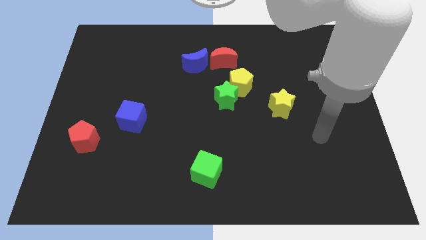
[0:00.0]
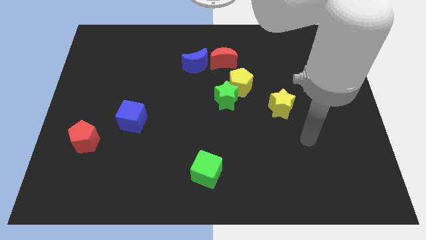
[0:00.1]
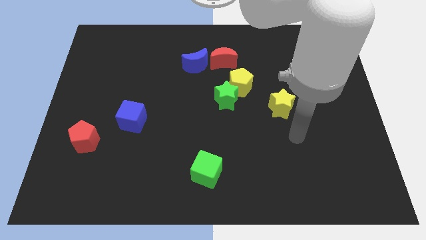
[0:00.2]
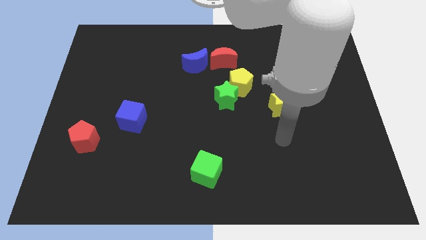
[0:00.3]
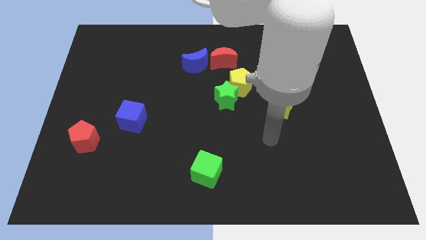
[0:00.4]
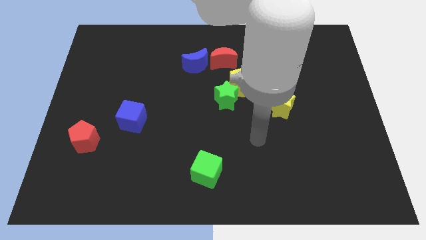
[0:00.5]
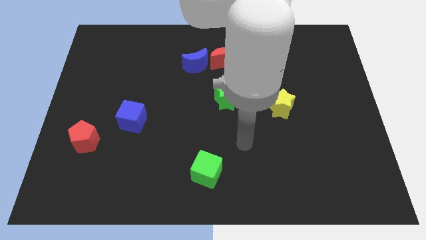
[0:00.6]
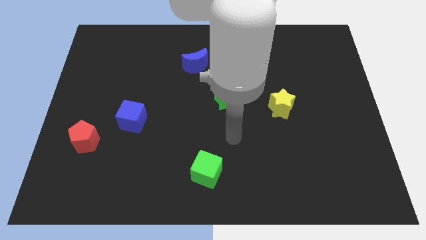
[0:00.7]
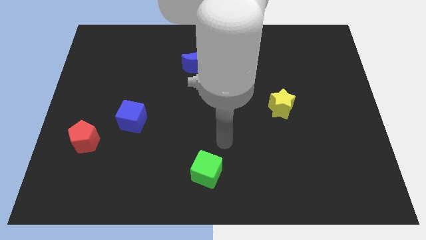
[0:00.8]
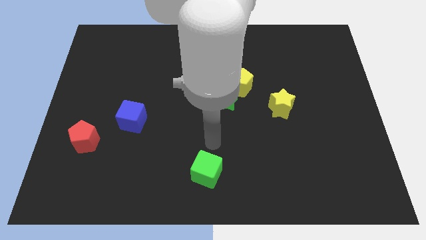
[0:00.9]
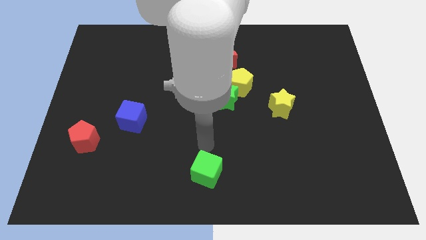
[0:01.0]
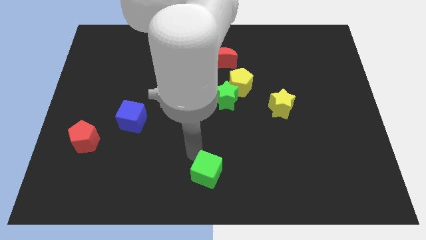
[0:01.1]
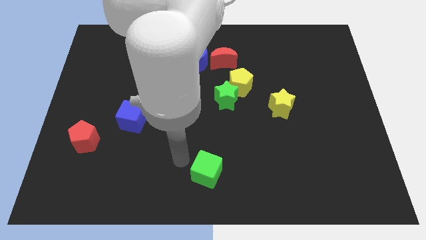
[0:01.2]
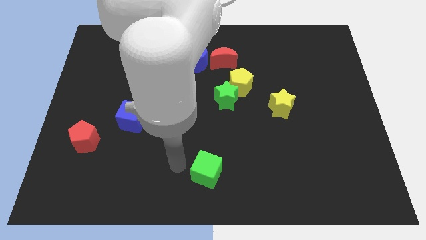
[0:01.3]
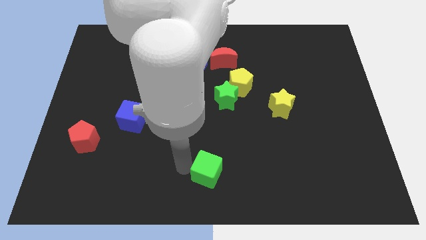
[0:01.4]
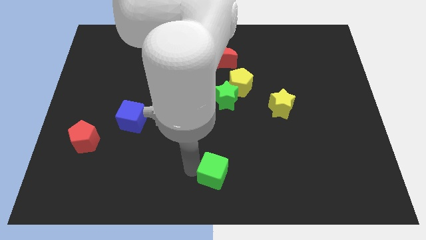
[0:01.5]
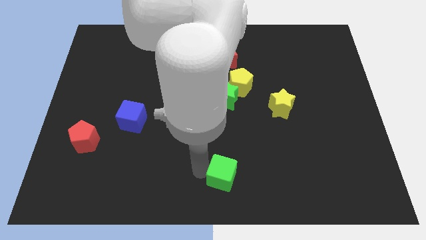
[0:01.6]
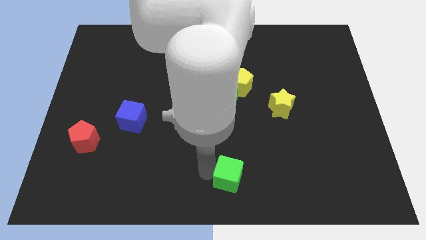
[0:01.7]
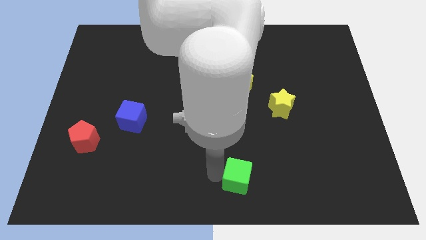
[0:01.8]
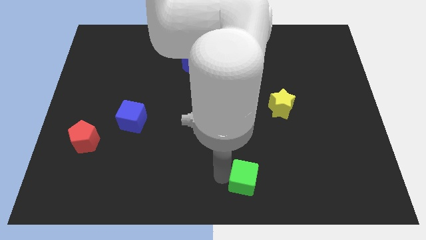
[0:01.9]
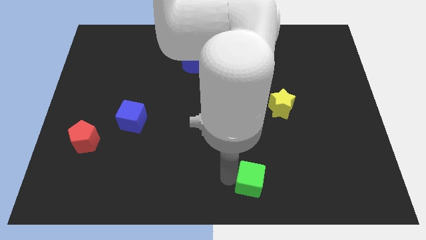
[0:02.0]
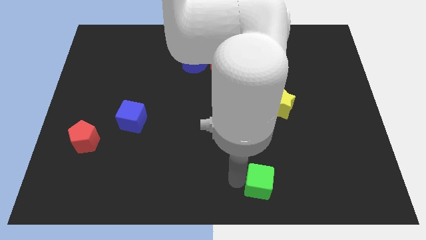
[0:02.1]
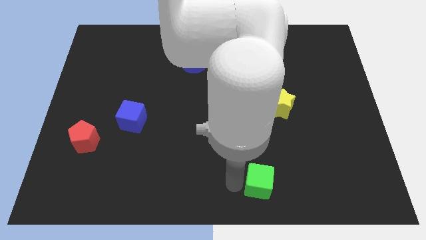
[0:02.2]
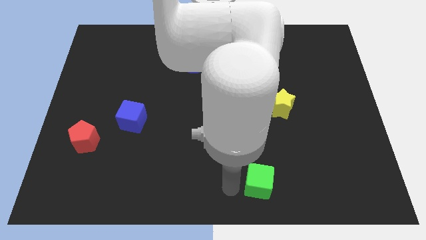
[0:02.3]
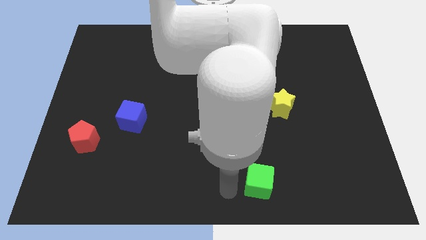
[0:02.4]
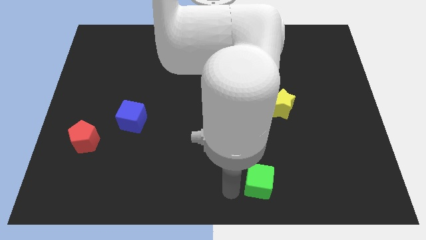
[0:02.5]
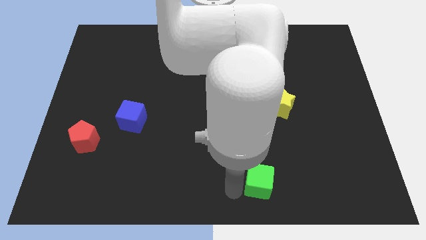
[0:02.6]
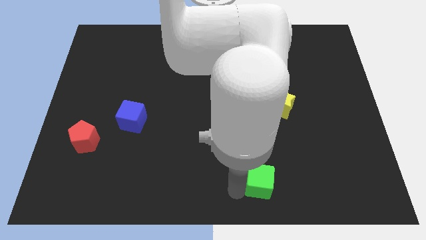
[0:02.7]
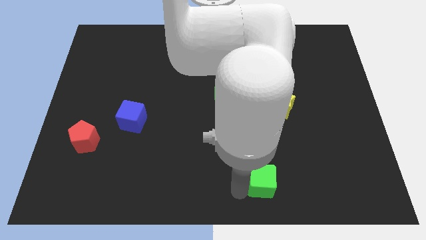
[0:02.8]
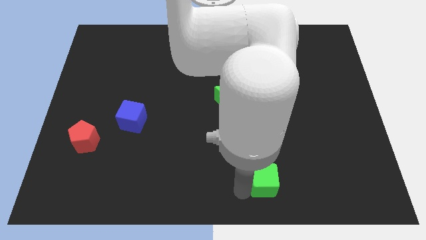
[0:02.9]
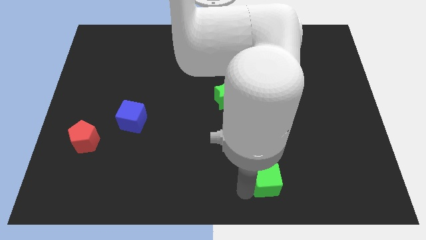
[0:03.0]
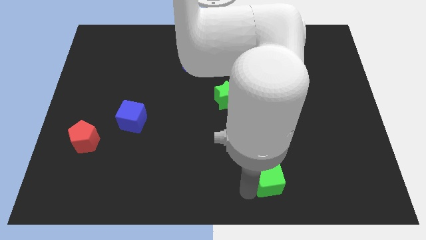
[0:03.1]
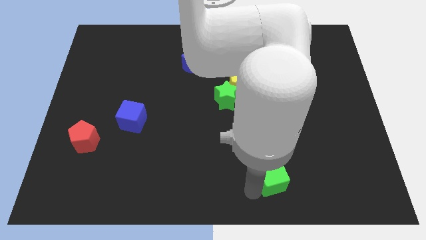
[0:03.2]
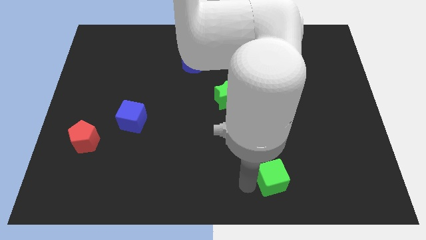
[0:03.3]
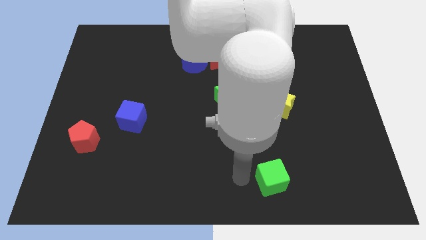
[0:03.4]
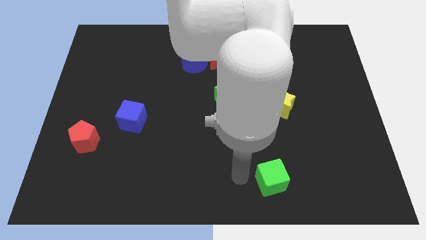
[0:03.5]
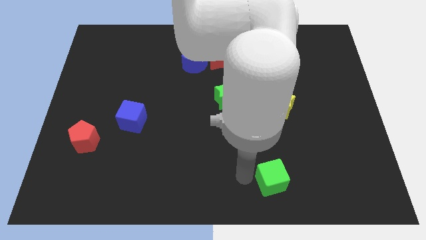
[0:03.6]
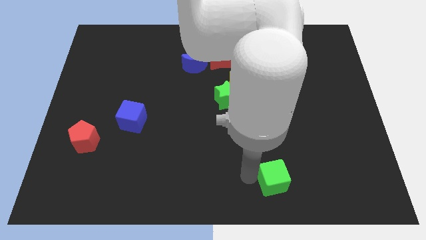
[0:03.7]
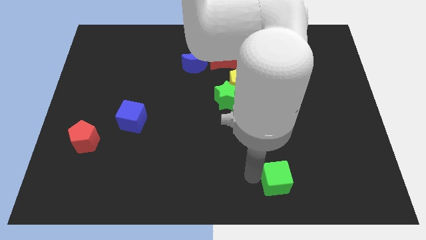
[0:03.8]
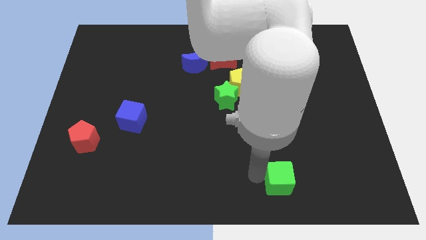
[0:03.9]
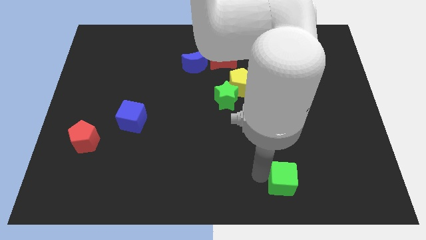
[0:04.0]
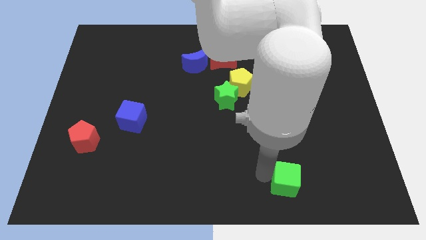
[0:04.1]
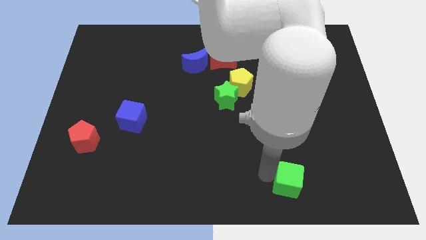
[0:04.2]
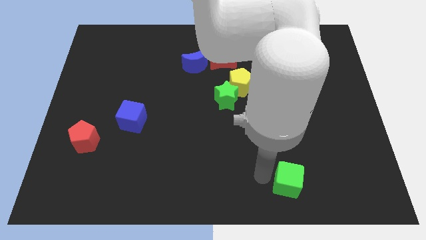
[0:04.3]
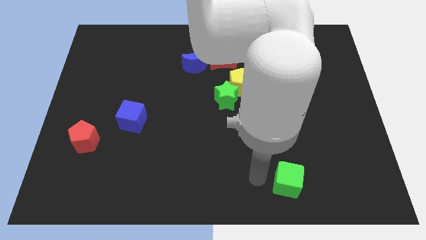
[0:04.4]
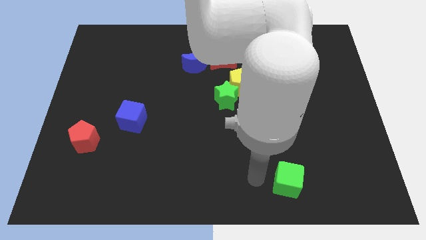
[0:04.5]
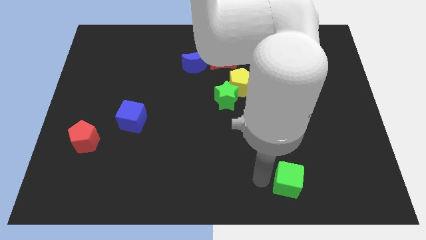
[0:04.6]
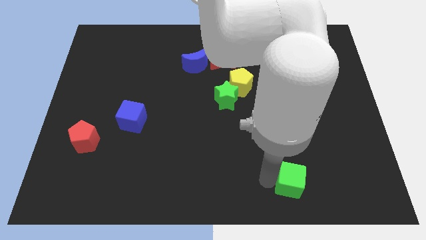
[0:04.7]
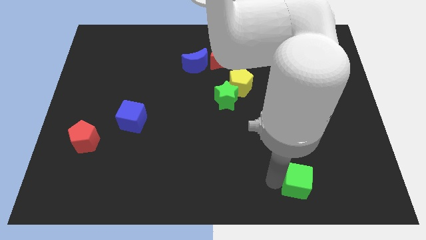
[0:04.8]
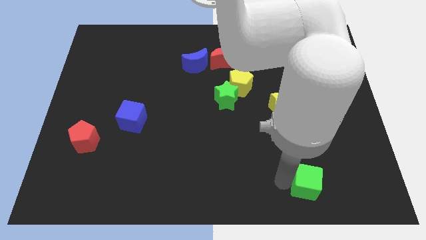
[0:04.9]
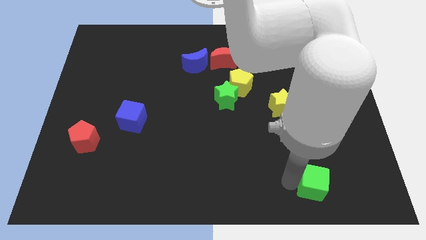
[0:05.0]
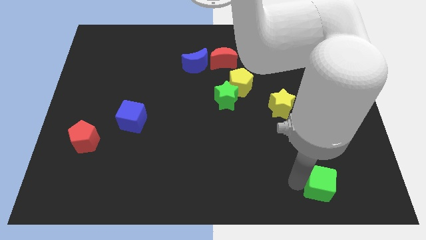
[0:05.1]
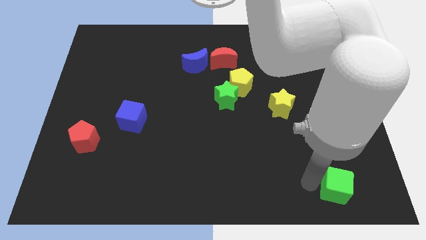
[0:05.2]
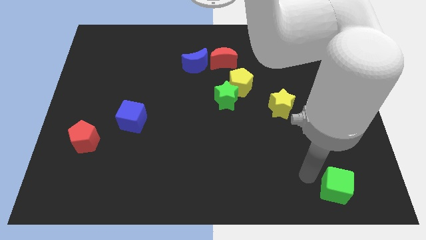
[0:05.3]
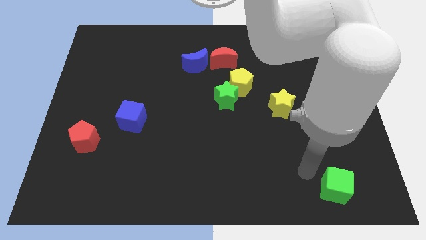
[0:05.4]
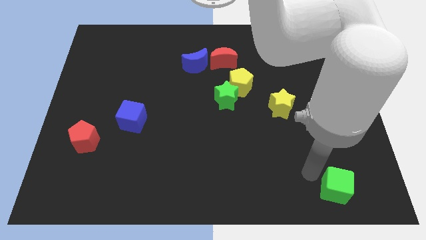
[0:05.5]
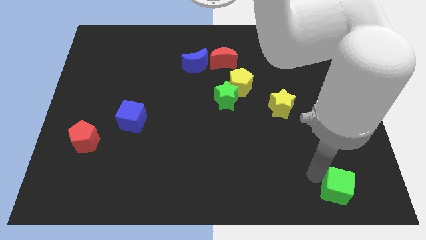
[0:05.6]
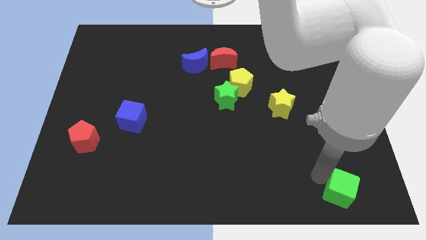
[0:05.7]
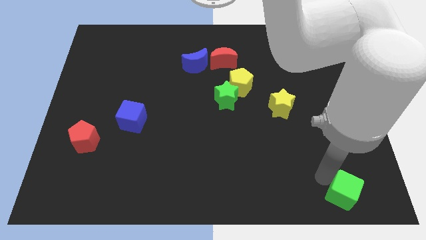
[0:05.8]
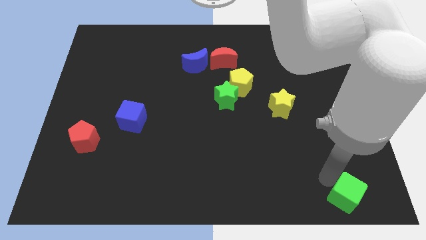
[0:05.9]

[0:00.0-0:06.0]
push the green cube to the lower right corner
